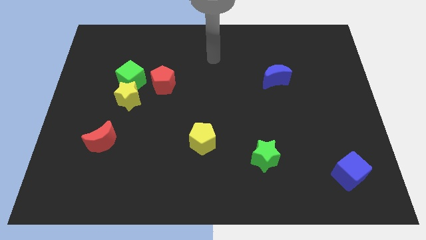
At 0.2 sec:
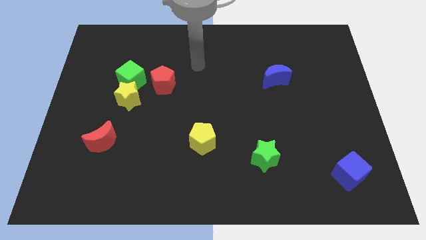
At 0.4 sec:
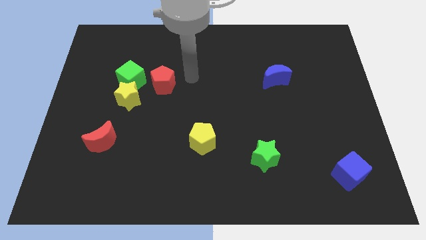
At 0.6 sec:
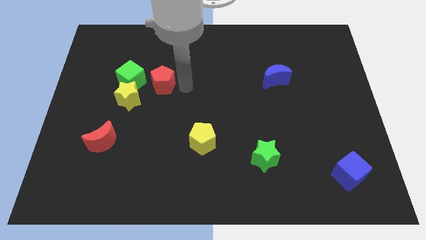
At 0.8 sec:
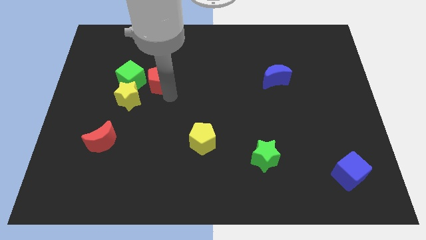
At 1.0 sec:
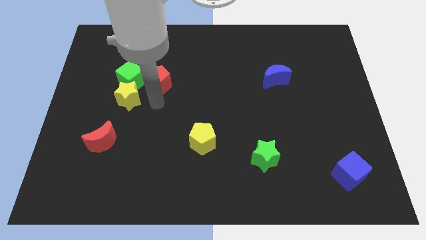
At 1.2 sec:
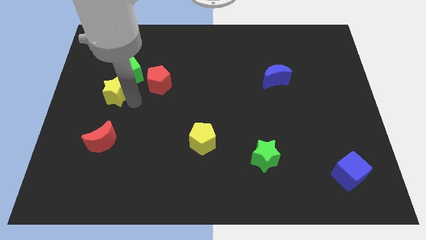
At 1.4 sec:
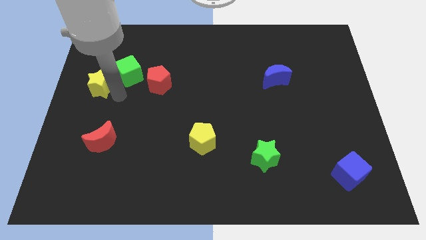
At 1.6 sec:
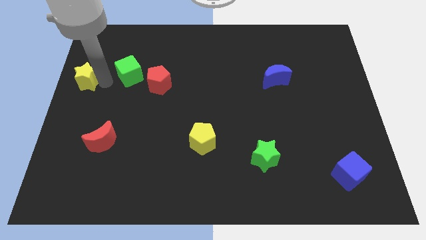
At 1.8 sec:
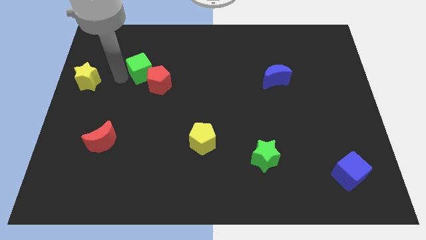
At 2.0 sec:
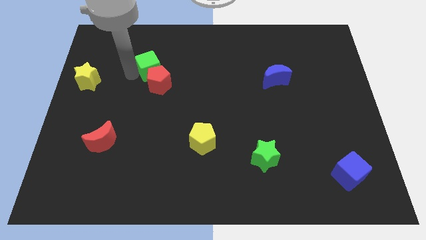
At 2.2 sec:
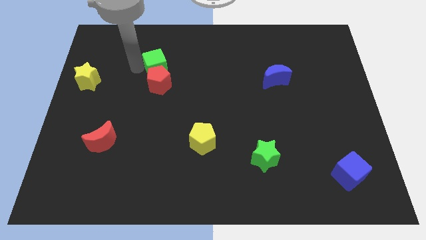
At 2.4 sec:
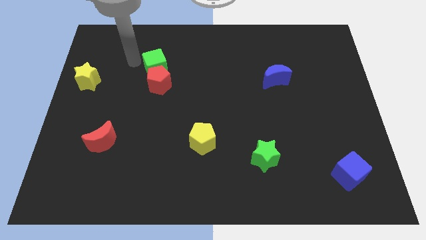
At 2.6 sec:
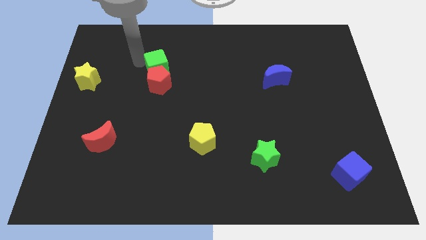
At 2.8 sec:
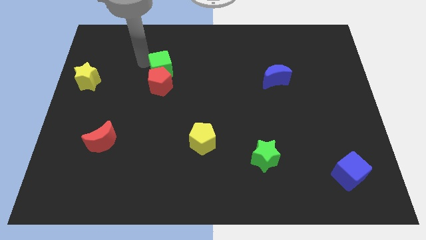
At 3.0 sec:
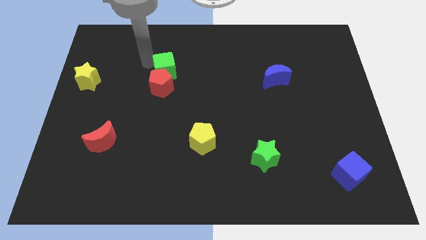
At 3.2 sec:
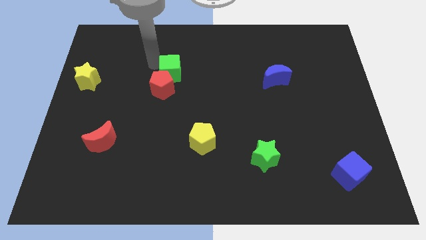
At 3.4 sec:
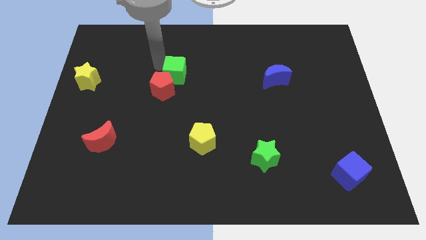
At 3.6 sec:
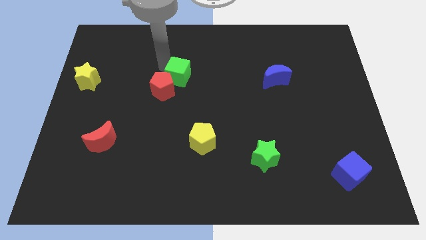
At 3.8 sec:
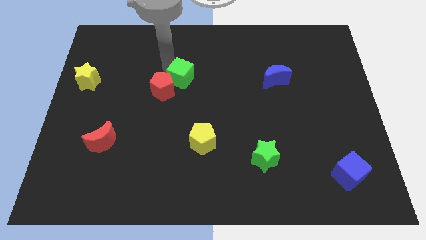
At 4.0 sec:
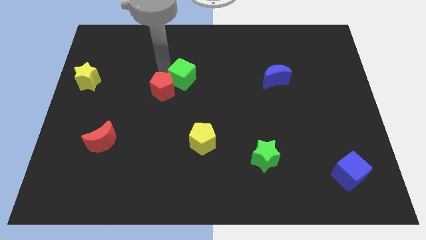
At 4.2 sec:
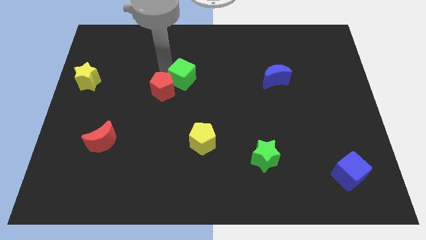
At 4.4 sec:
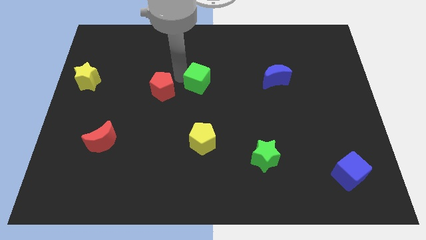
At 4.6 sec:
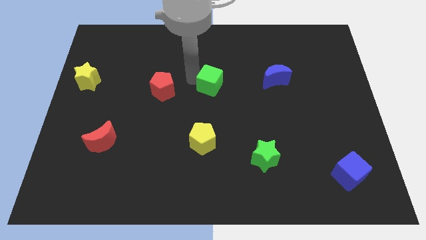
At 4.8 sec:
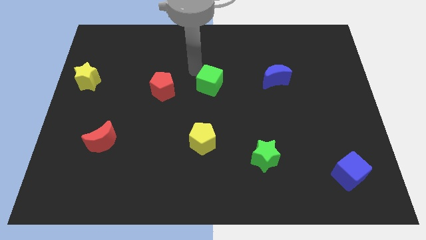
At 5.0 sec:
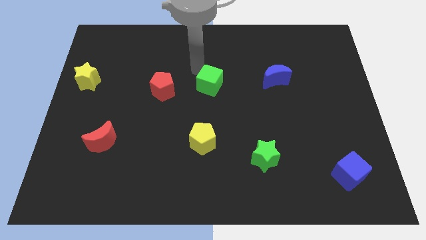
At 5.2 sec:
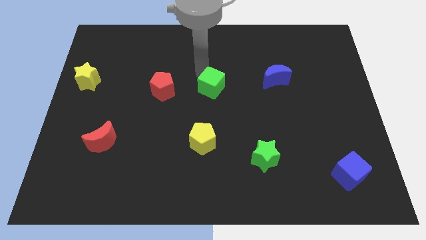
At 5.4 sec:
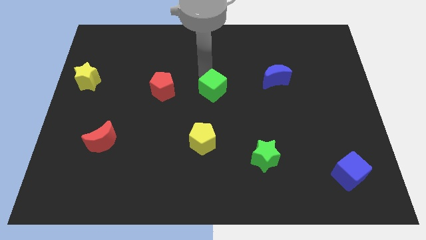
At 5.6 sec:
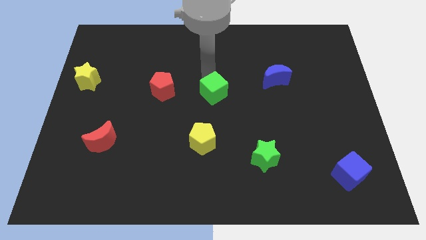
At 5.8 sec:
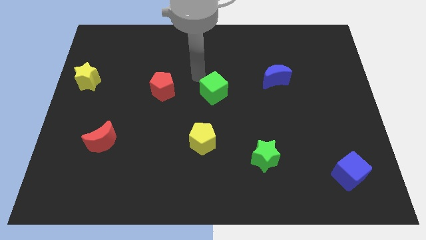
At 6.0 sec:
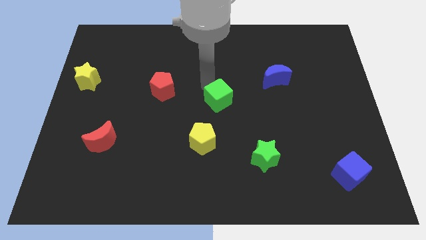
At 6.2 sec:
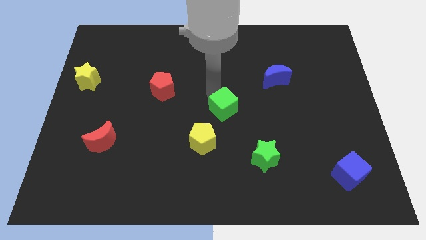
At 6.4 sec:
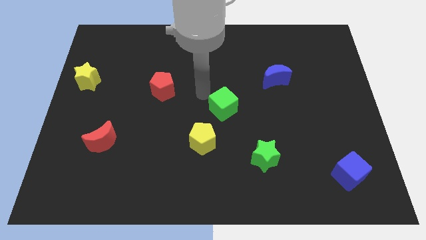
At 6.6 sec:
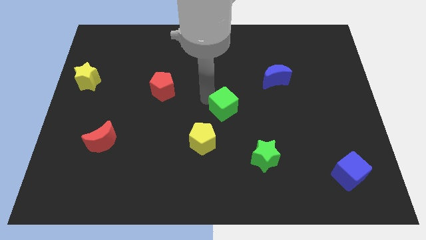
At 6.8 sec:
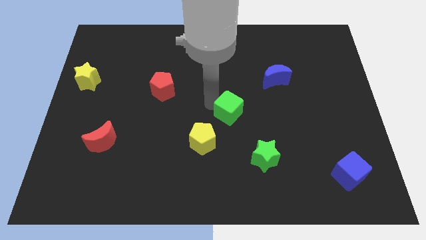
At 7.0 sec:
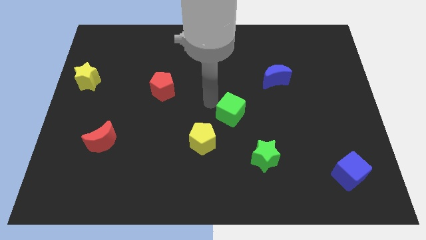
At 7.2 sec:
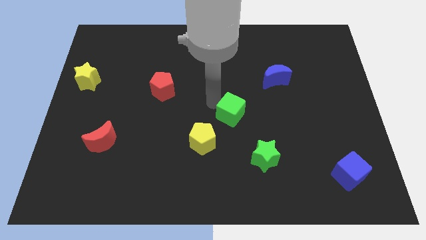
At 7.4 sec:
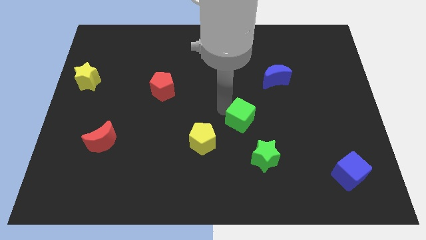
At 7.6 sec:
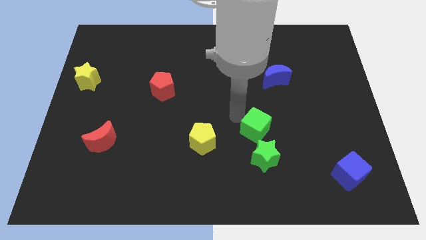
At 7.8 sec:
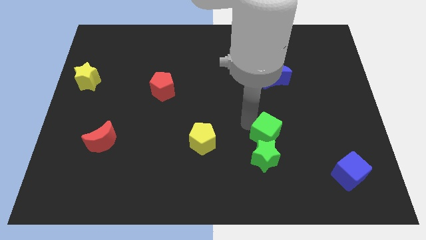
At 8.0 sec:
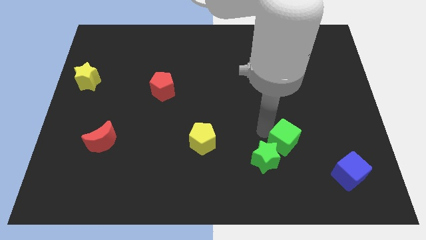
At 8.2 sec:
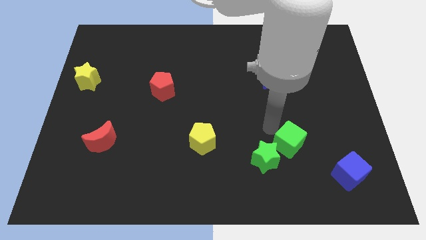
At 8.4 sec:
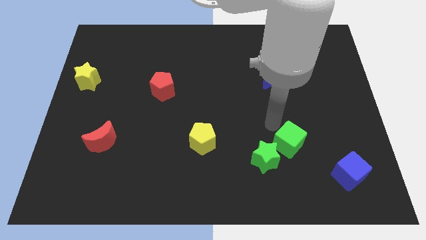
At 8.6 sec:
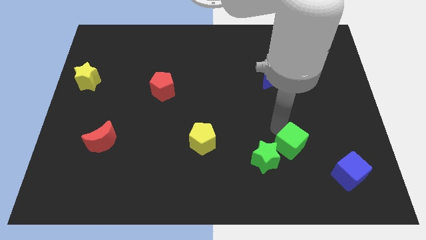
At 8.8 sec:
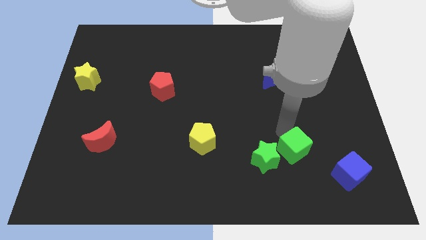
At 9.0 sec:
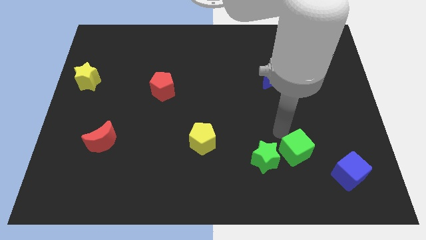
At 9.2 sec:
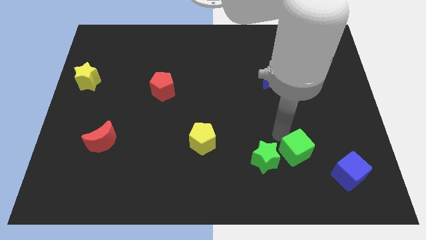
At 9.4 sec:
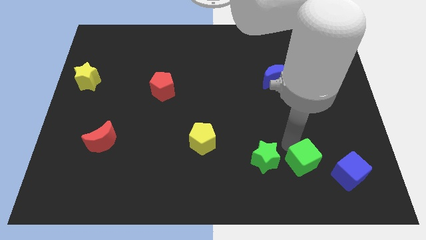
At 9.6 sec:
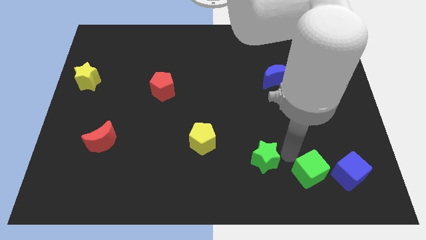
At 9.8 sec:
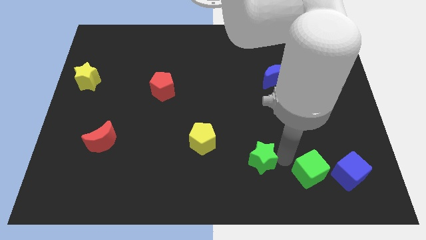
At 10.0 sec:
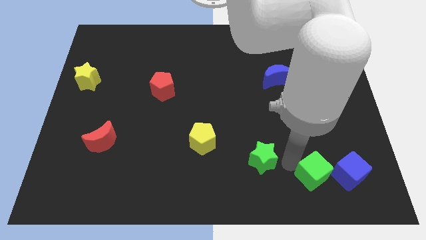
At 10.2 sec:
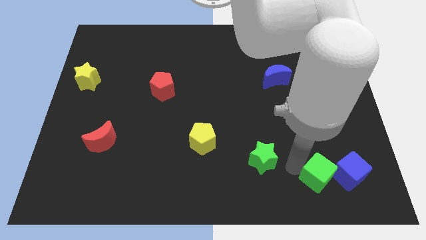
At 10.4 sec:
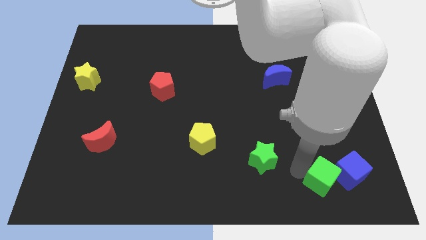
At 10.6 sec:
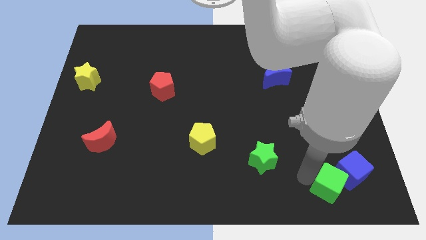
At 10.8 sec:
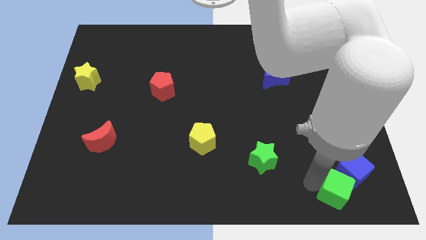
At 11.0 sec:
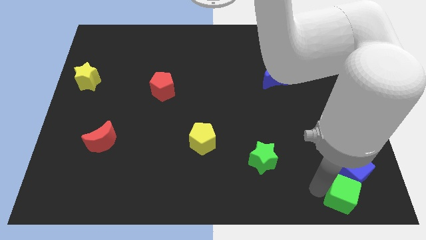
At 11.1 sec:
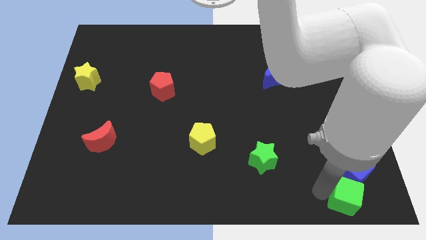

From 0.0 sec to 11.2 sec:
push the green cube to the bottom right corner

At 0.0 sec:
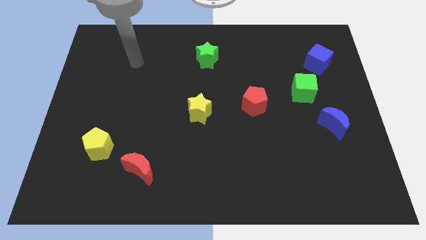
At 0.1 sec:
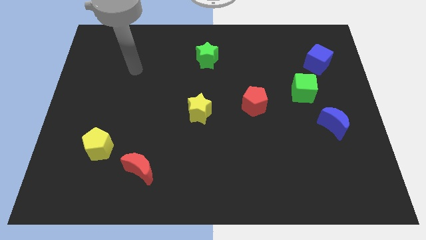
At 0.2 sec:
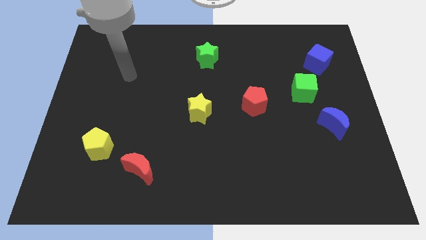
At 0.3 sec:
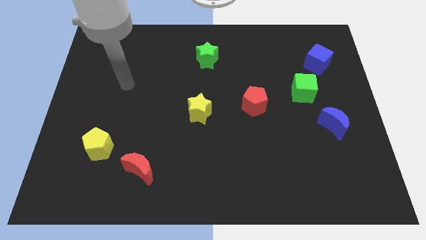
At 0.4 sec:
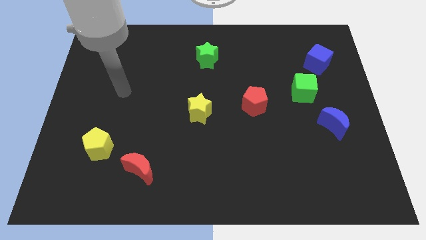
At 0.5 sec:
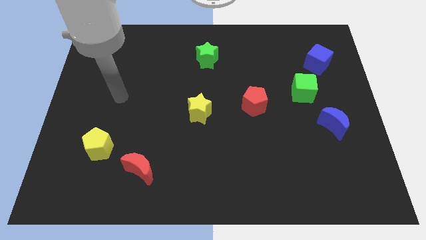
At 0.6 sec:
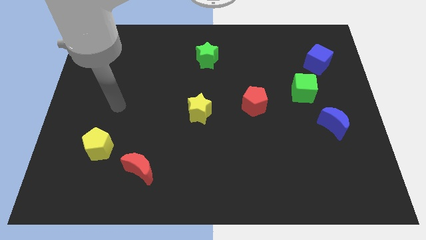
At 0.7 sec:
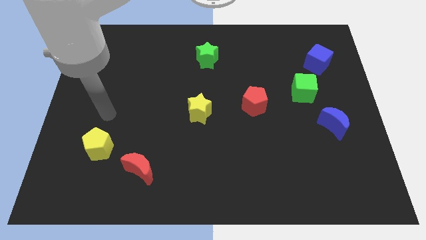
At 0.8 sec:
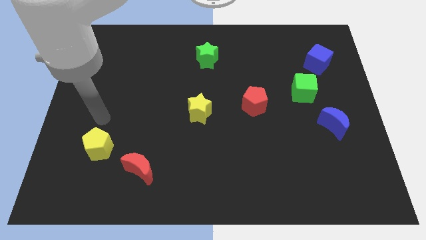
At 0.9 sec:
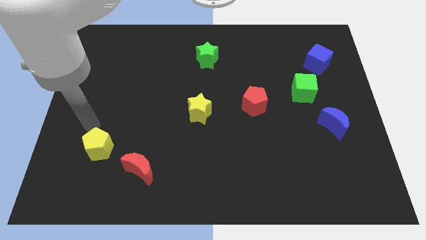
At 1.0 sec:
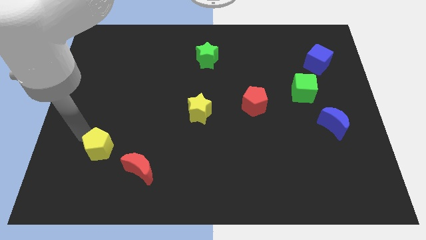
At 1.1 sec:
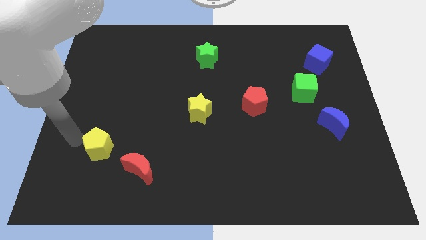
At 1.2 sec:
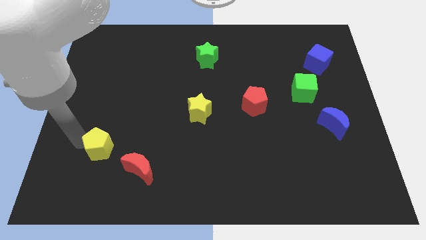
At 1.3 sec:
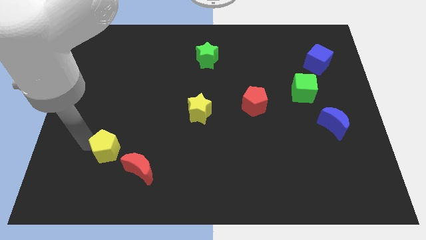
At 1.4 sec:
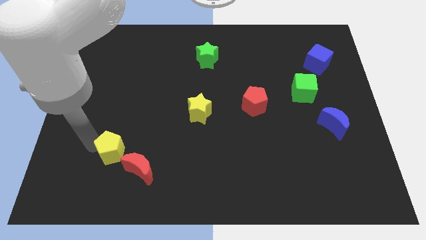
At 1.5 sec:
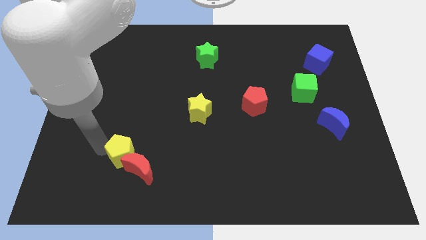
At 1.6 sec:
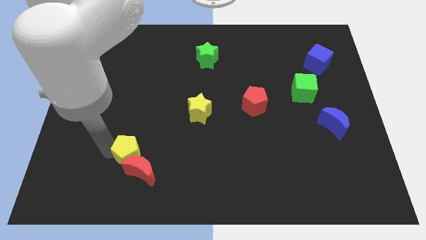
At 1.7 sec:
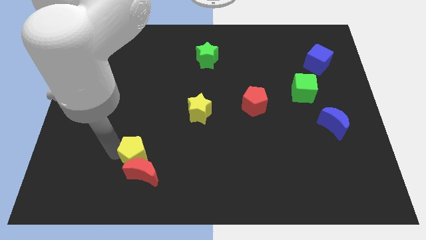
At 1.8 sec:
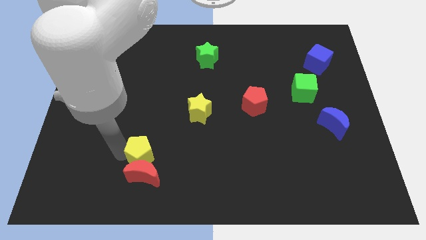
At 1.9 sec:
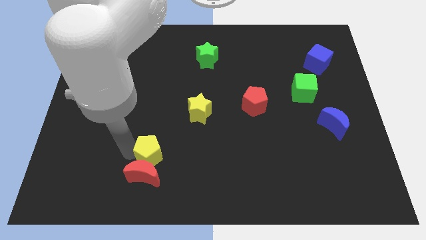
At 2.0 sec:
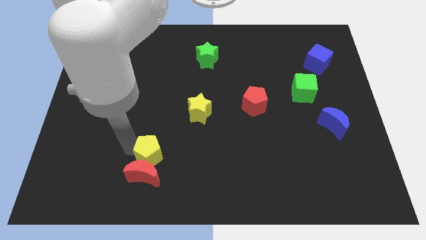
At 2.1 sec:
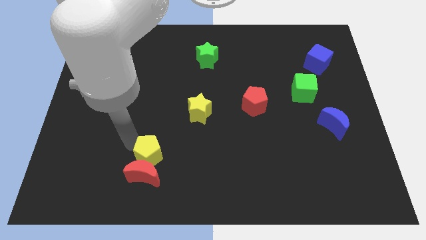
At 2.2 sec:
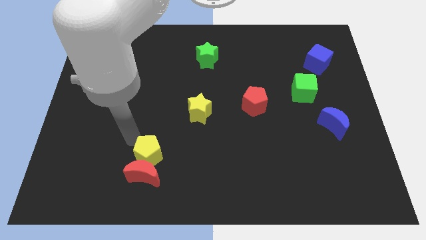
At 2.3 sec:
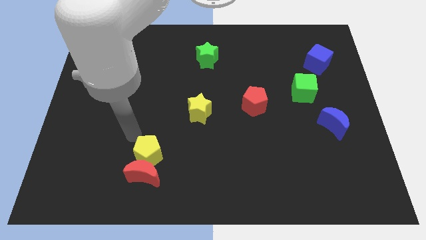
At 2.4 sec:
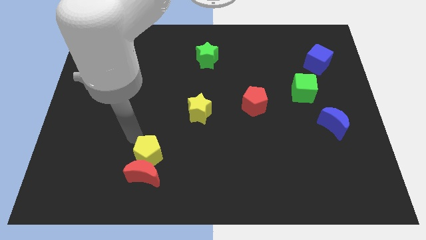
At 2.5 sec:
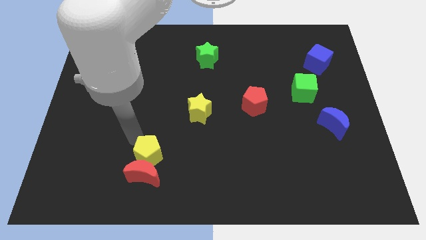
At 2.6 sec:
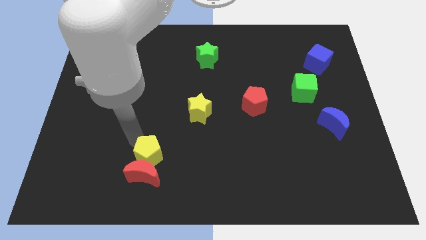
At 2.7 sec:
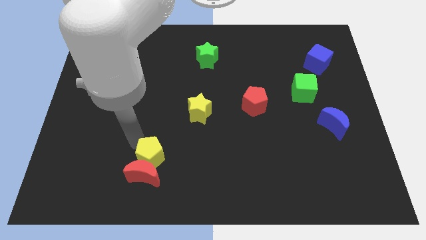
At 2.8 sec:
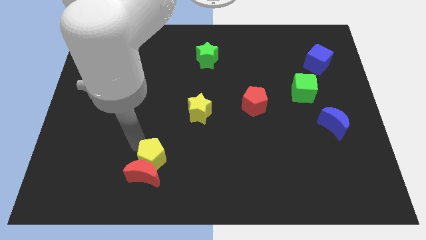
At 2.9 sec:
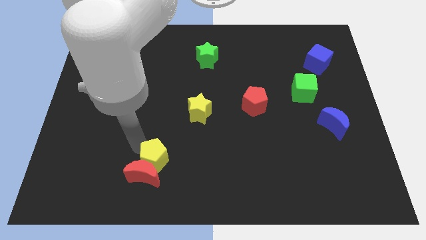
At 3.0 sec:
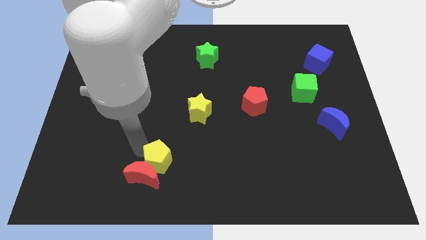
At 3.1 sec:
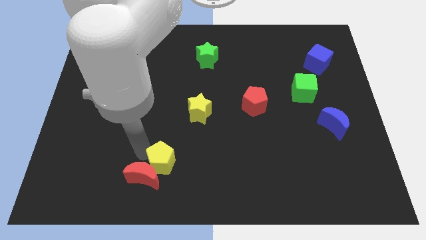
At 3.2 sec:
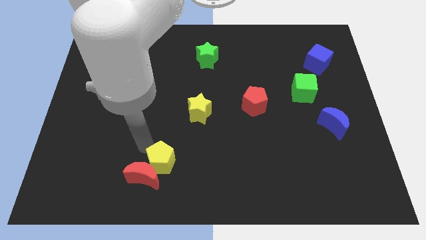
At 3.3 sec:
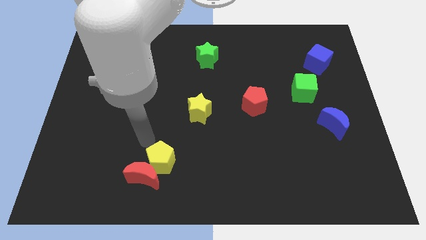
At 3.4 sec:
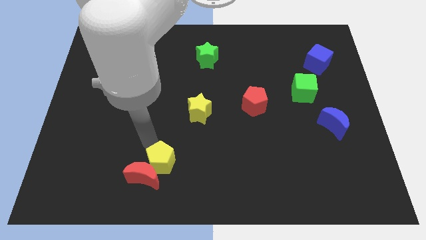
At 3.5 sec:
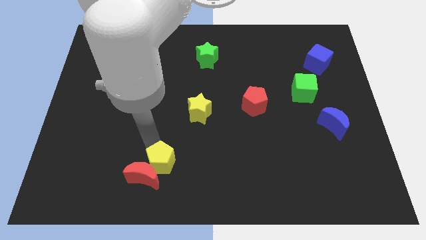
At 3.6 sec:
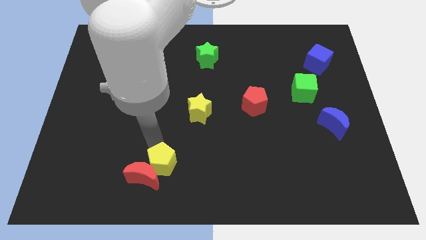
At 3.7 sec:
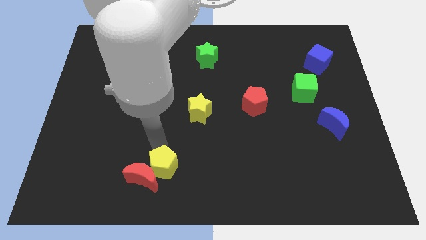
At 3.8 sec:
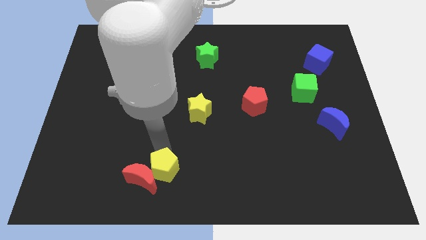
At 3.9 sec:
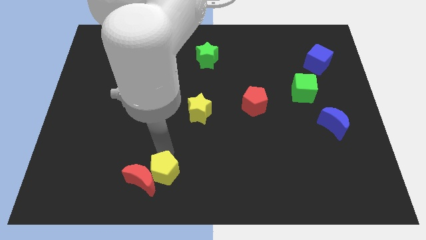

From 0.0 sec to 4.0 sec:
put the yellow pentagon to the bottom
